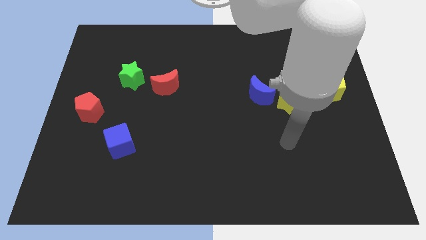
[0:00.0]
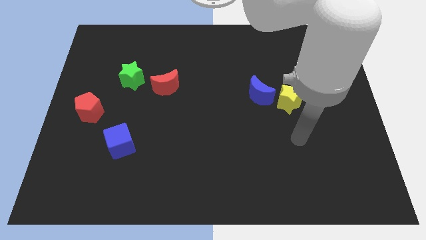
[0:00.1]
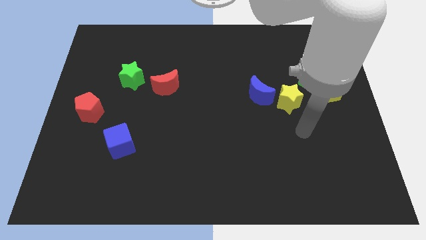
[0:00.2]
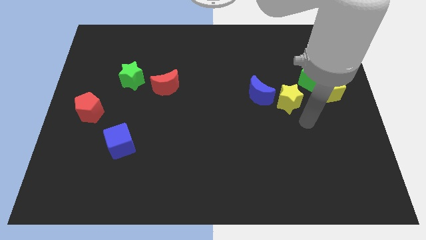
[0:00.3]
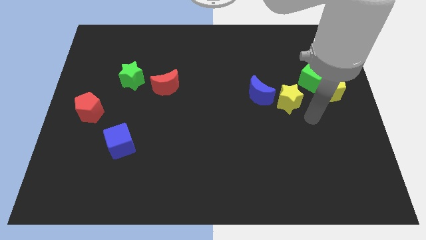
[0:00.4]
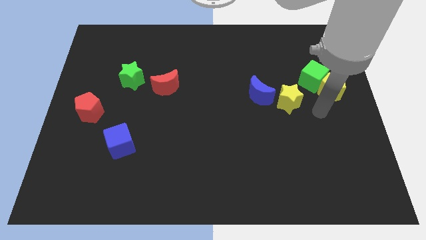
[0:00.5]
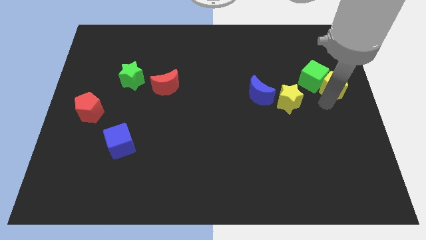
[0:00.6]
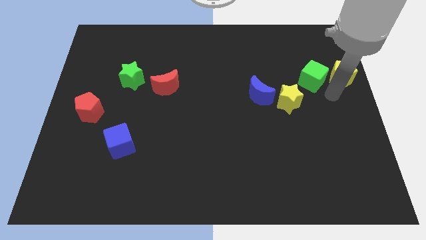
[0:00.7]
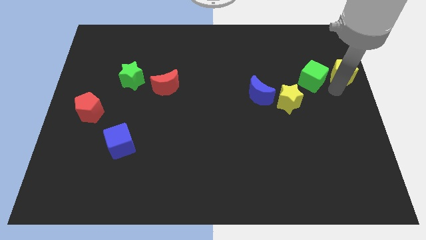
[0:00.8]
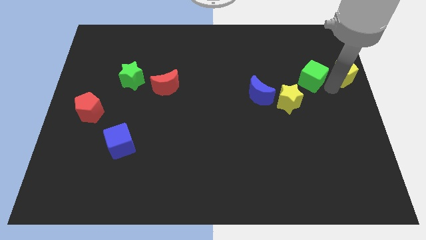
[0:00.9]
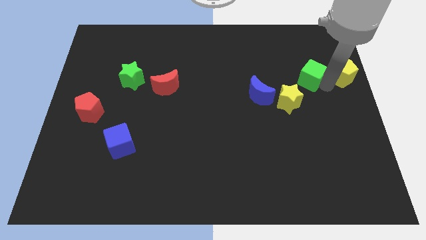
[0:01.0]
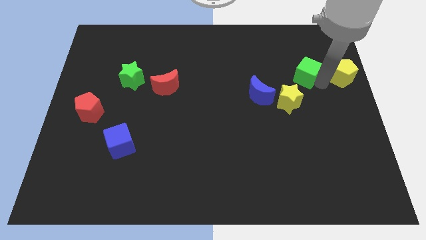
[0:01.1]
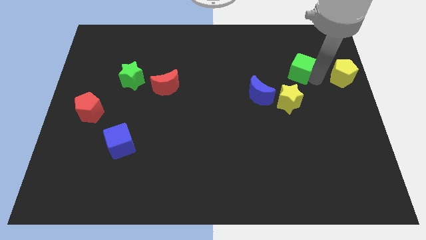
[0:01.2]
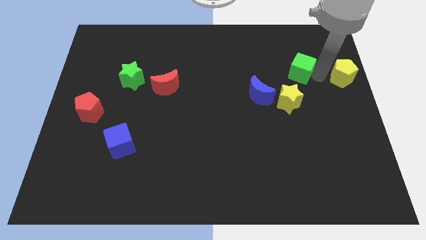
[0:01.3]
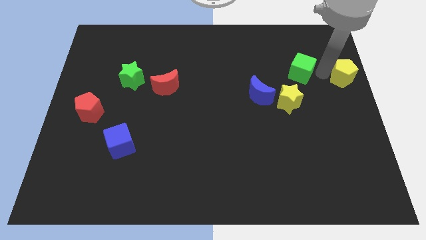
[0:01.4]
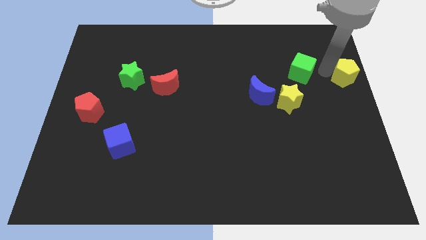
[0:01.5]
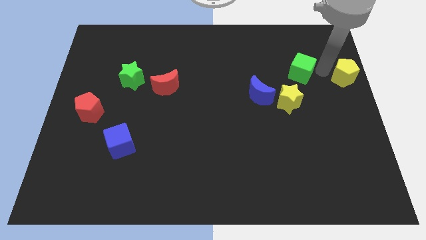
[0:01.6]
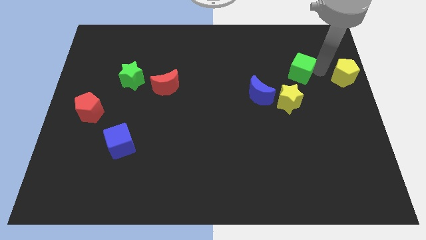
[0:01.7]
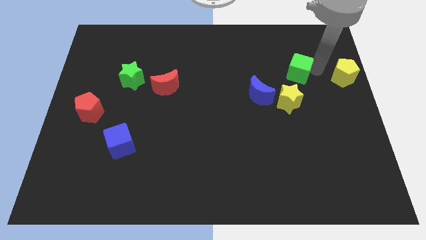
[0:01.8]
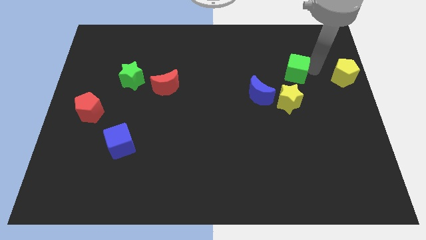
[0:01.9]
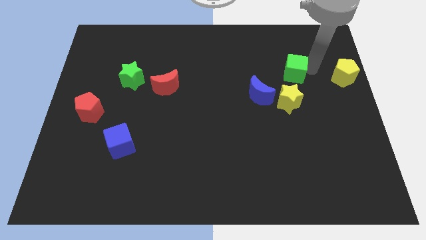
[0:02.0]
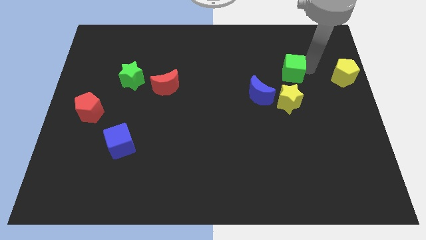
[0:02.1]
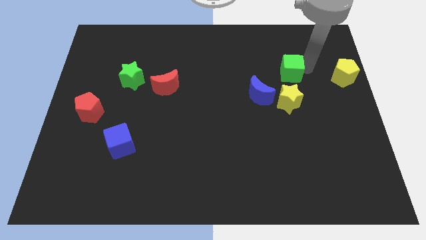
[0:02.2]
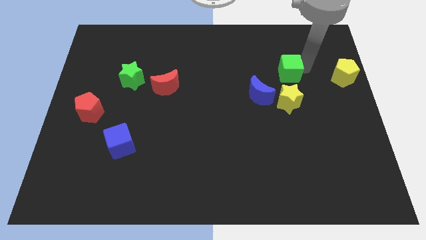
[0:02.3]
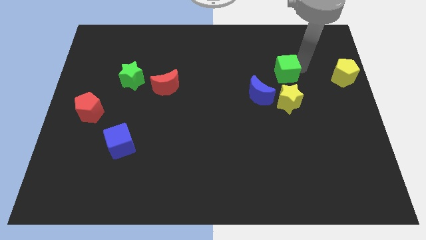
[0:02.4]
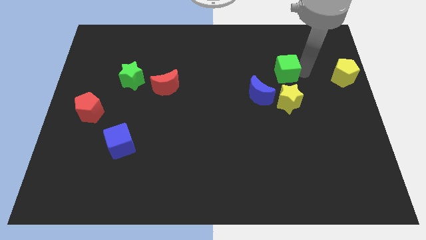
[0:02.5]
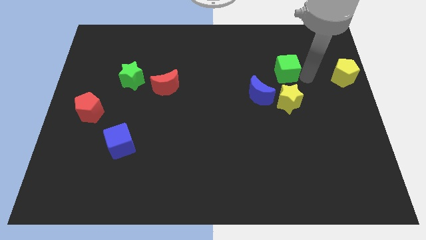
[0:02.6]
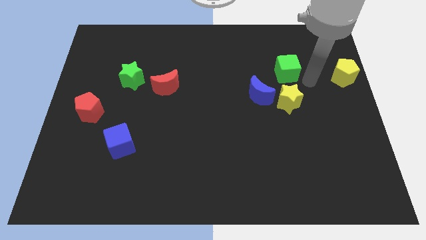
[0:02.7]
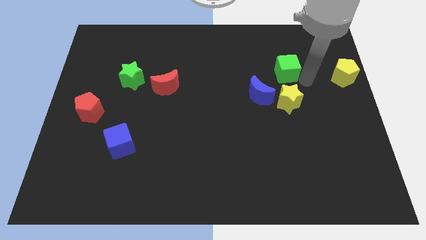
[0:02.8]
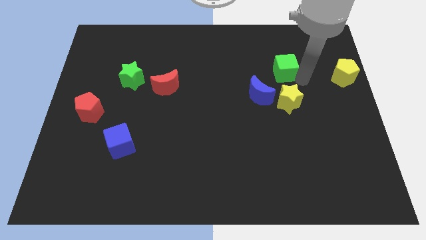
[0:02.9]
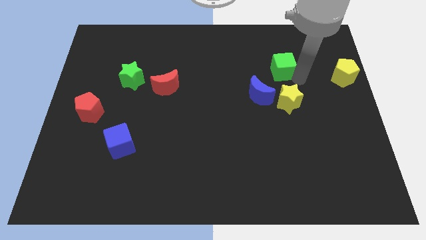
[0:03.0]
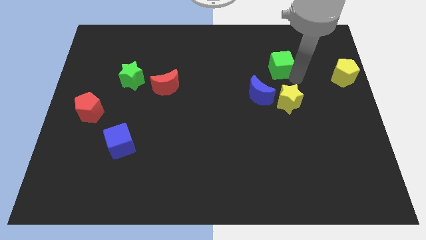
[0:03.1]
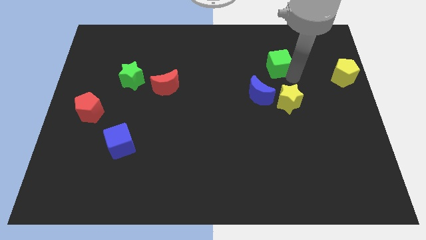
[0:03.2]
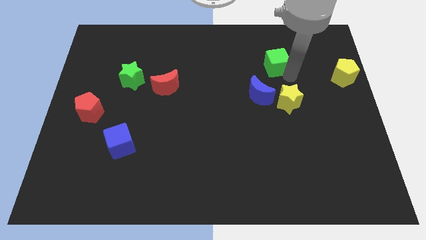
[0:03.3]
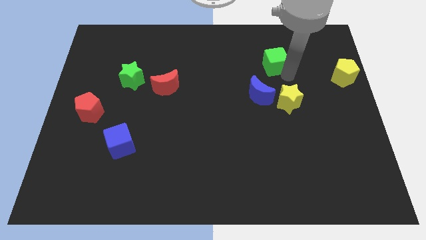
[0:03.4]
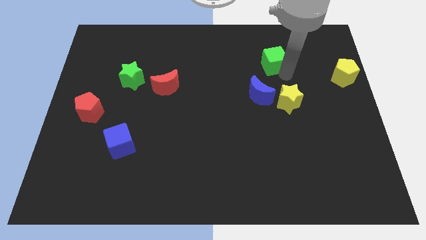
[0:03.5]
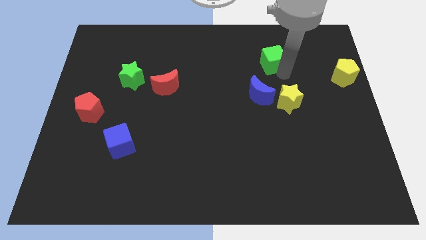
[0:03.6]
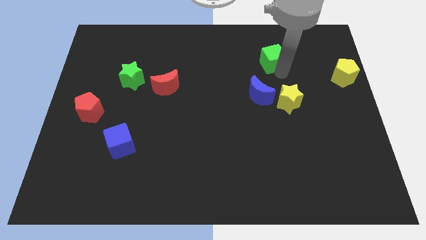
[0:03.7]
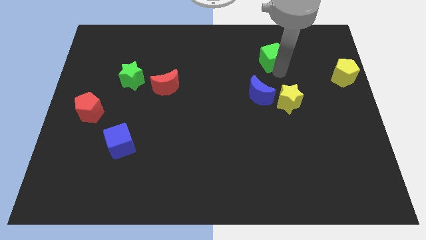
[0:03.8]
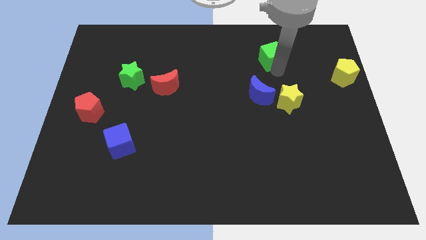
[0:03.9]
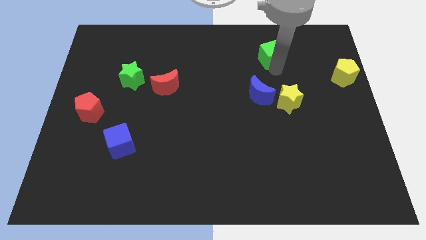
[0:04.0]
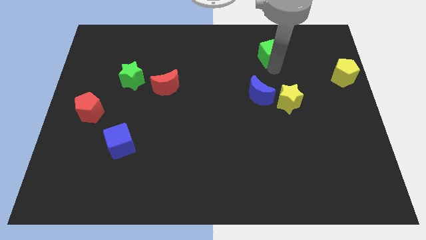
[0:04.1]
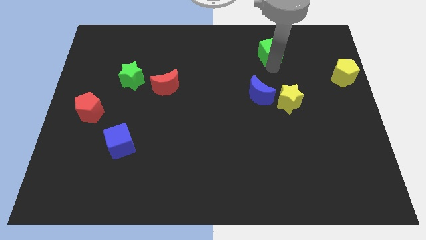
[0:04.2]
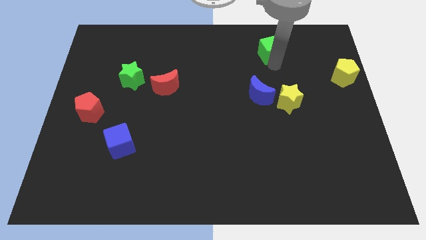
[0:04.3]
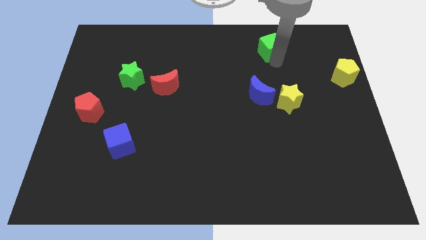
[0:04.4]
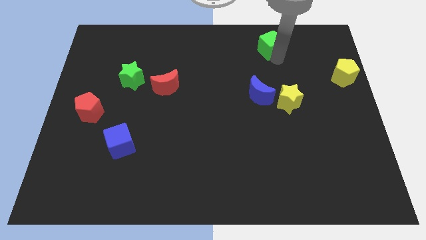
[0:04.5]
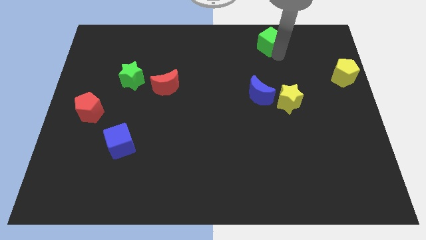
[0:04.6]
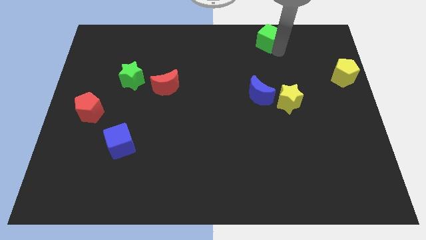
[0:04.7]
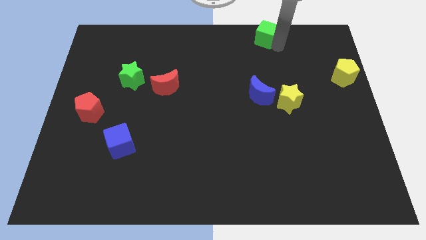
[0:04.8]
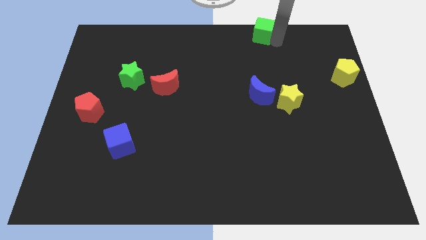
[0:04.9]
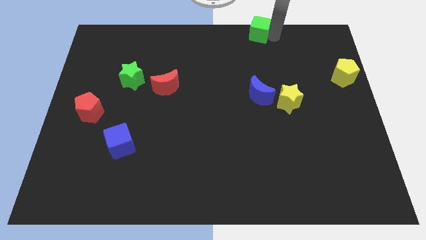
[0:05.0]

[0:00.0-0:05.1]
push the green cube to the top side
